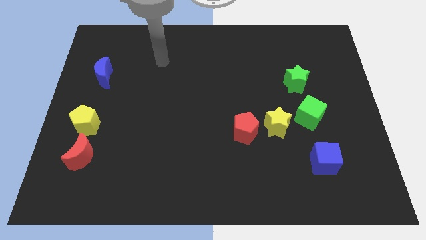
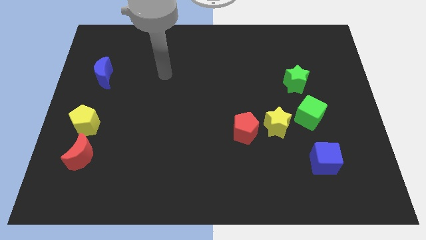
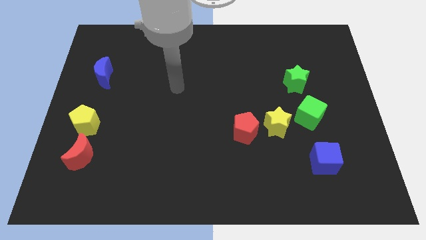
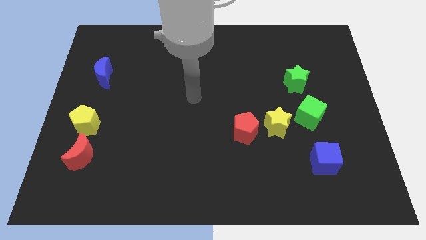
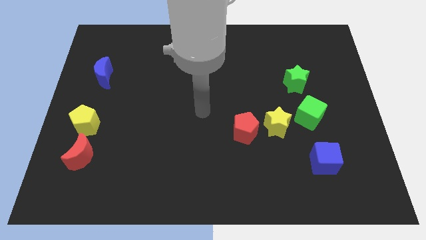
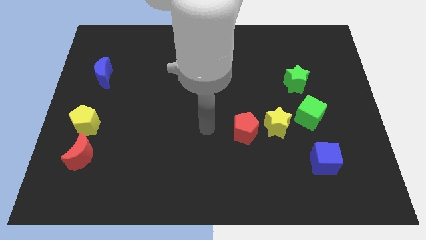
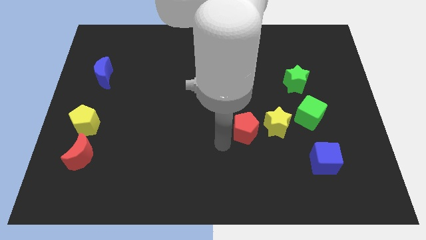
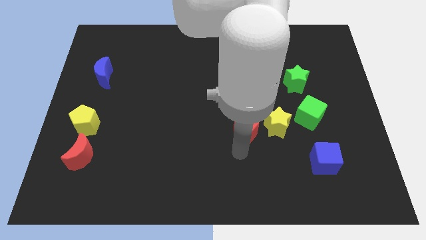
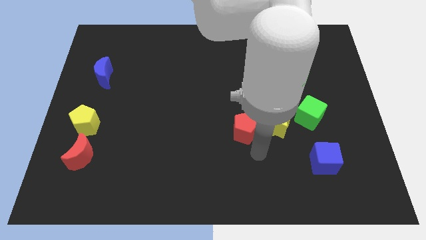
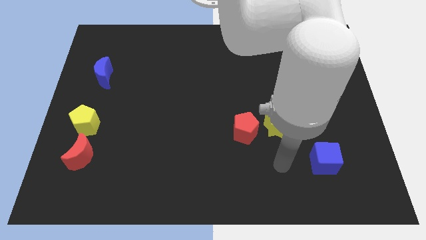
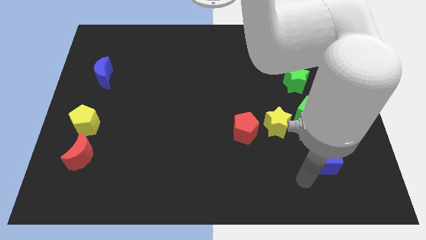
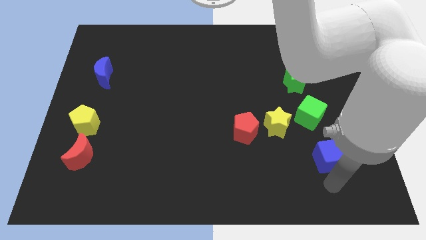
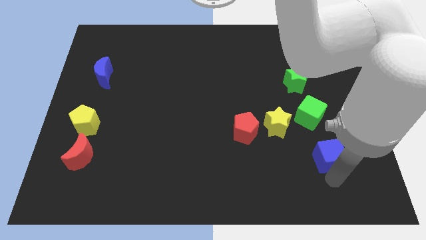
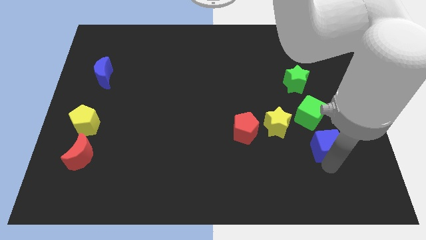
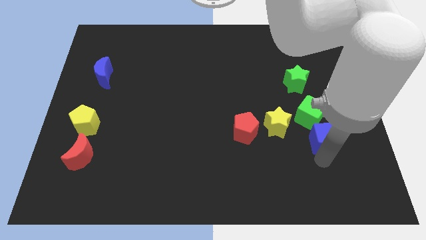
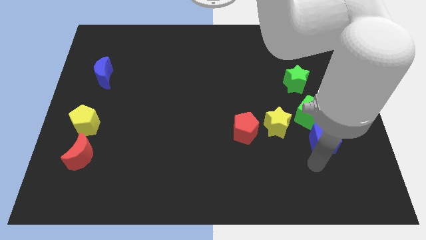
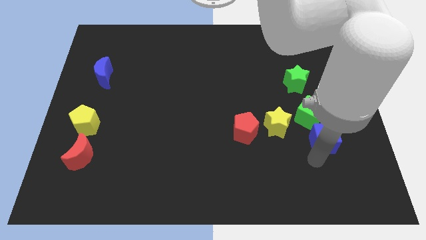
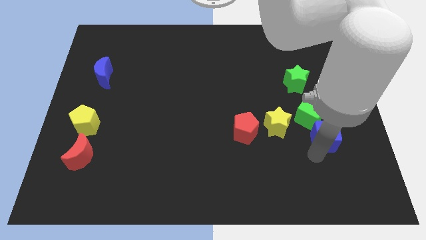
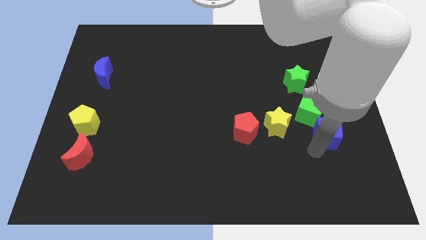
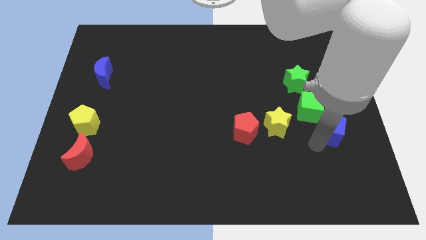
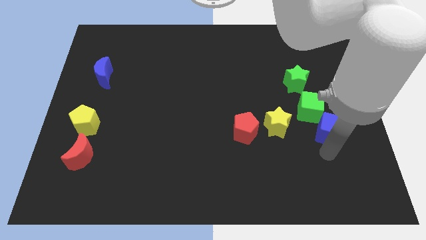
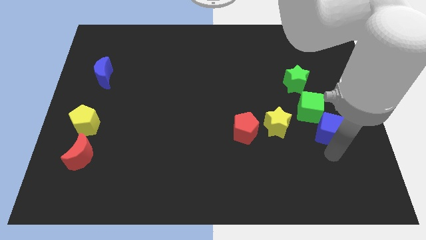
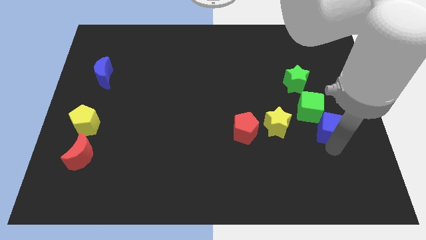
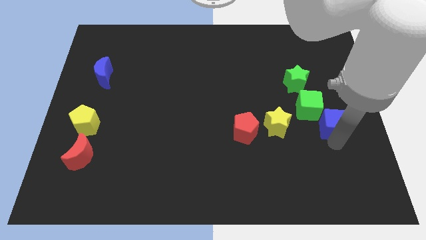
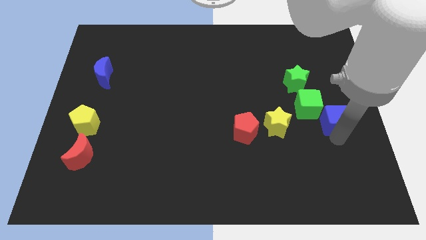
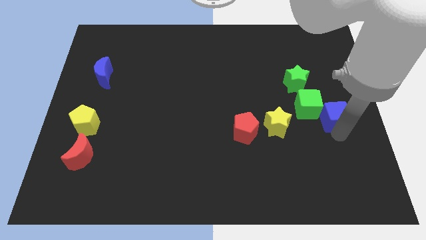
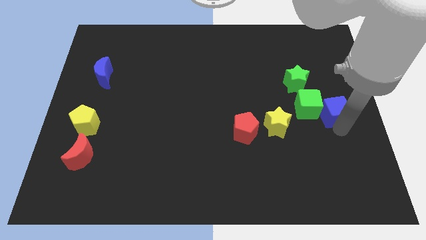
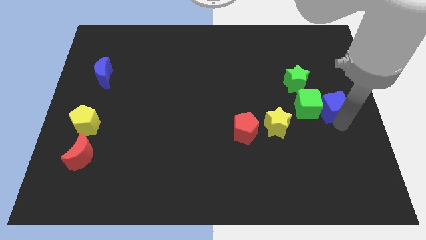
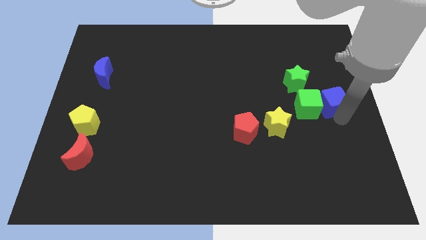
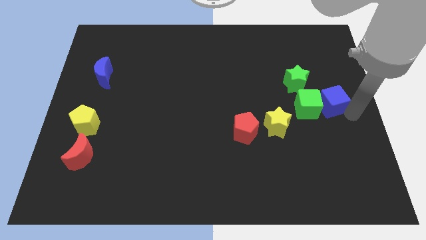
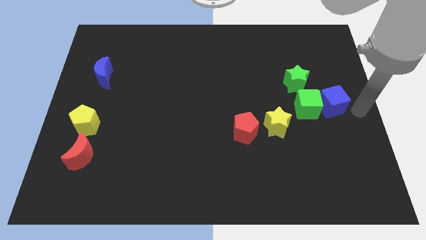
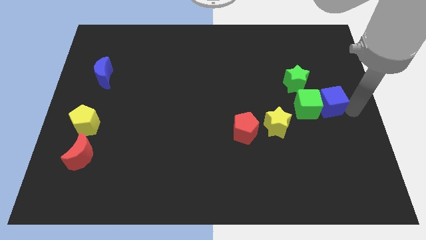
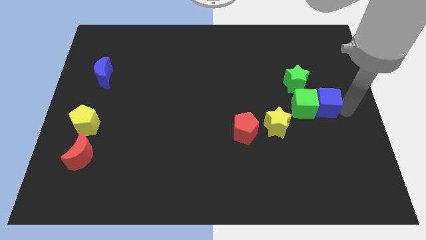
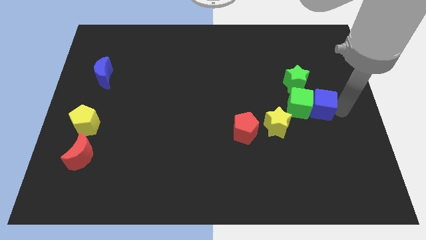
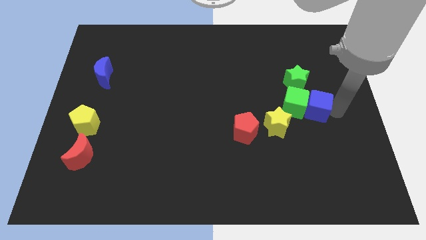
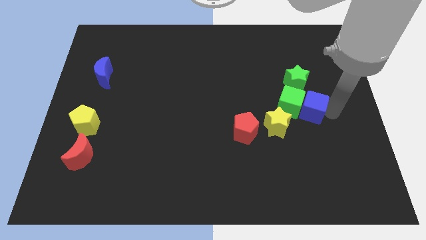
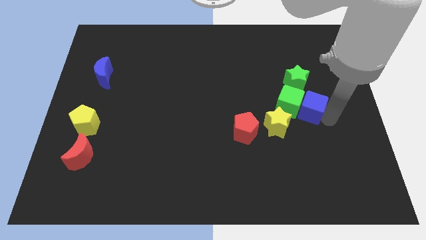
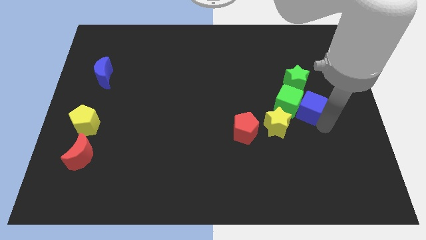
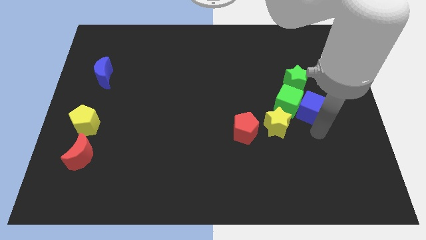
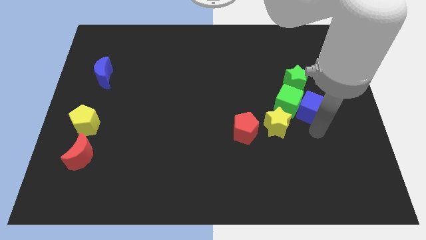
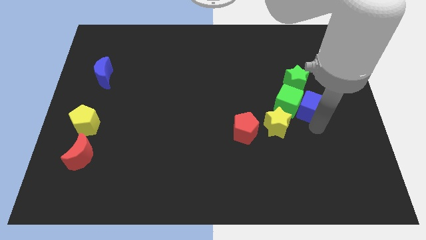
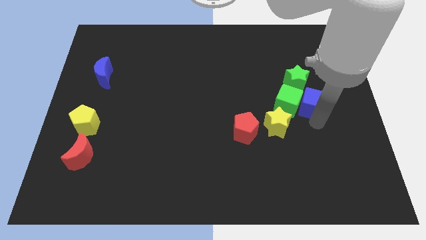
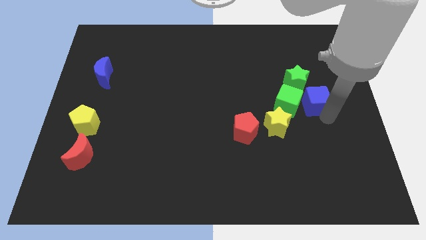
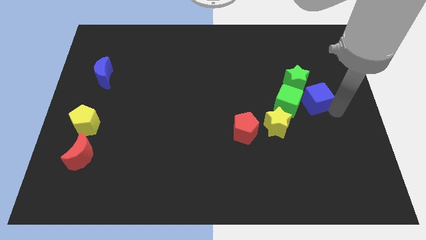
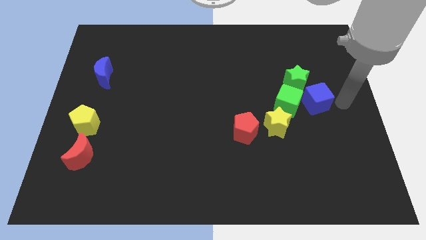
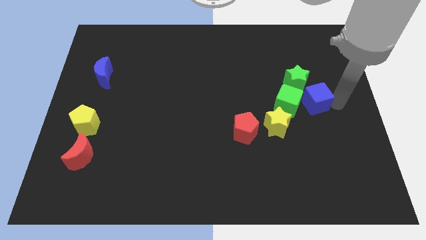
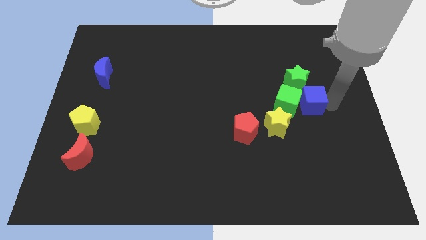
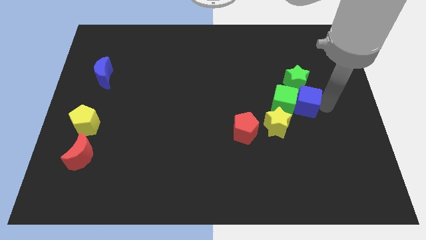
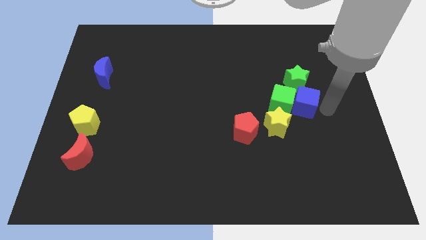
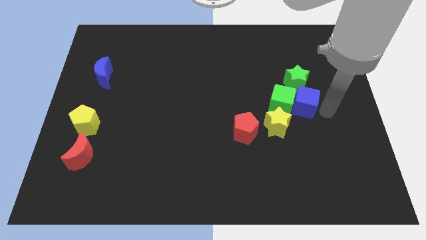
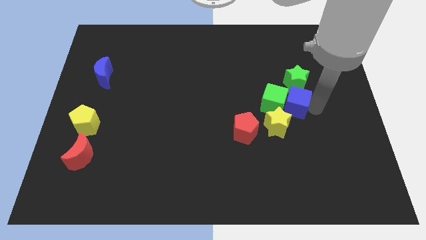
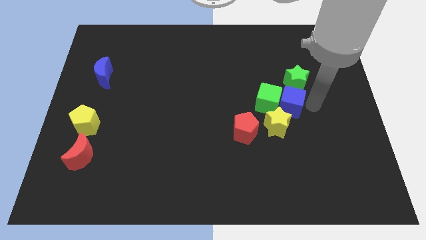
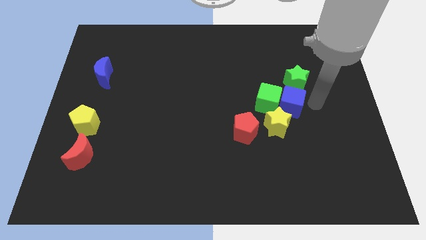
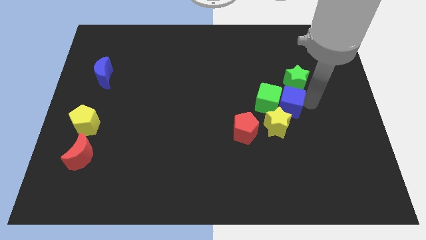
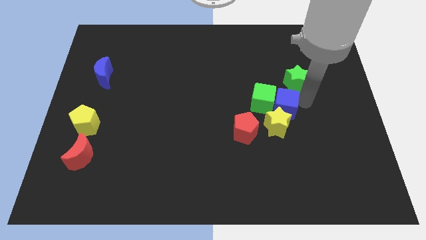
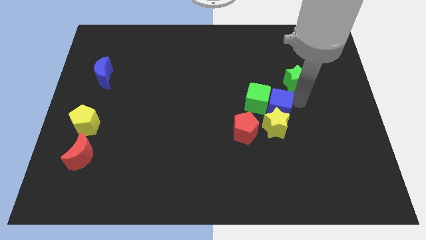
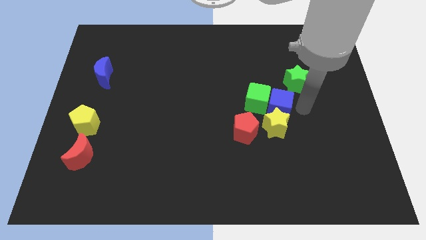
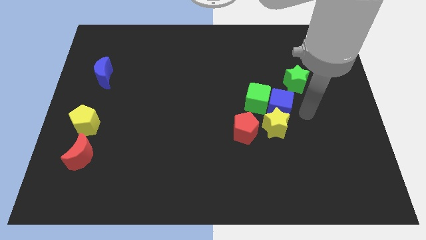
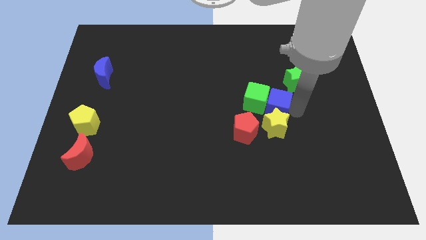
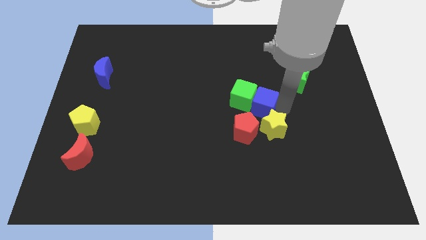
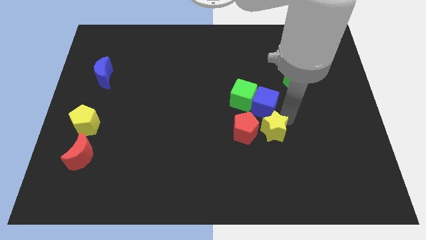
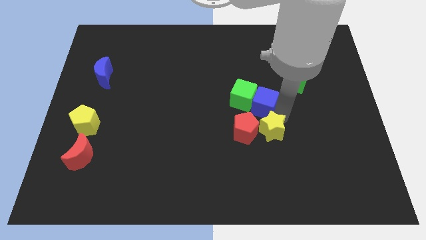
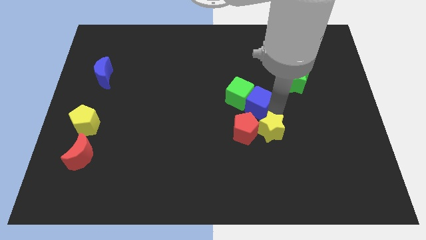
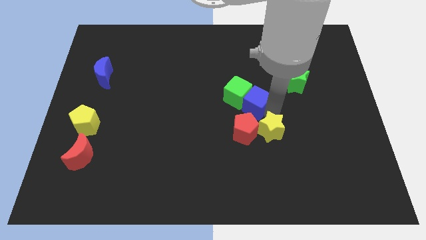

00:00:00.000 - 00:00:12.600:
push the blue cube diagonally up and left

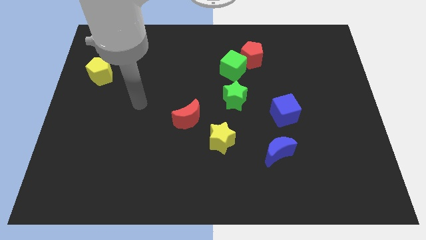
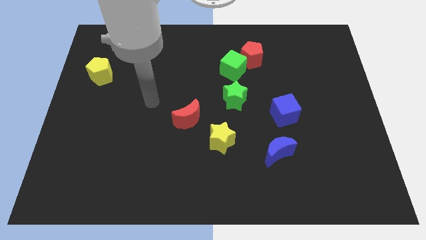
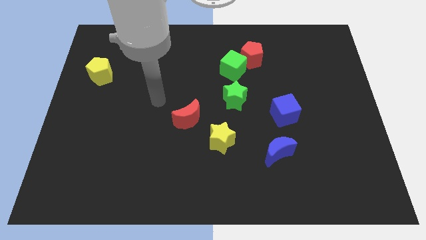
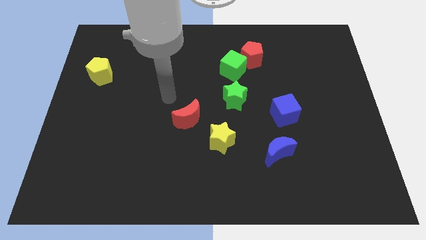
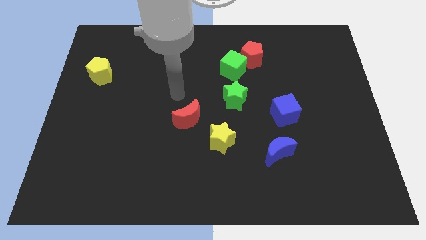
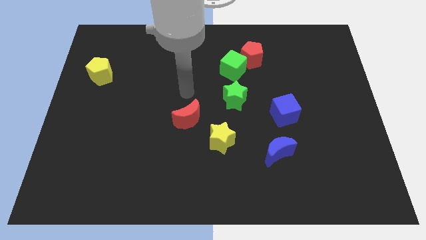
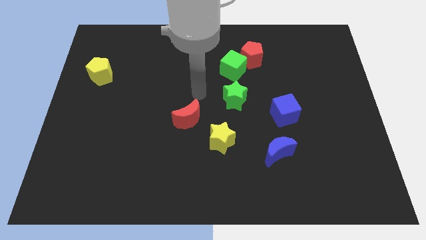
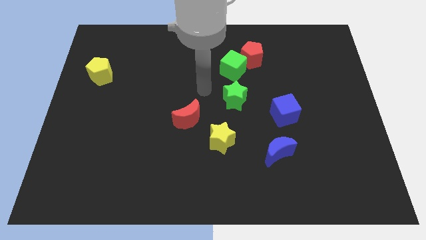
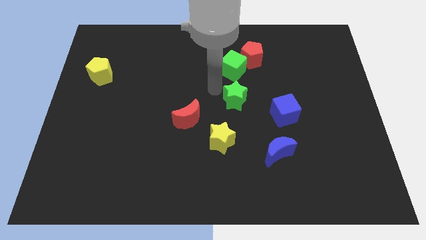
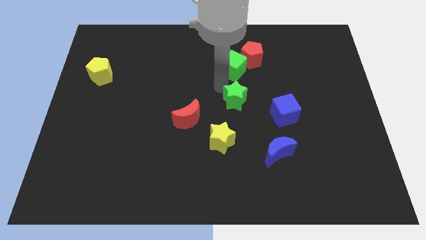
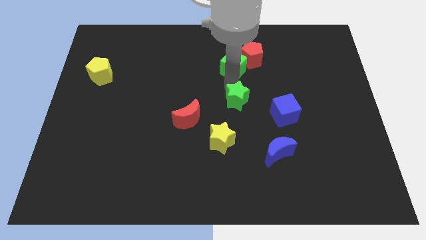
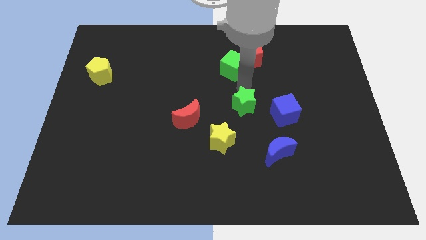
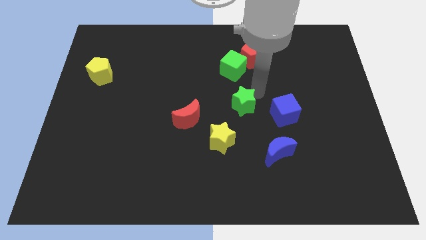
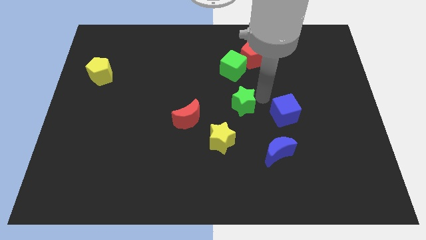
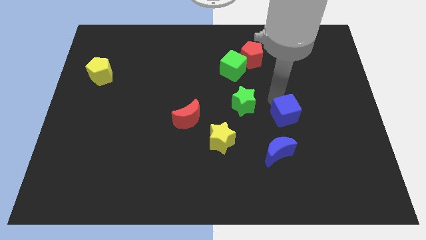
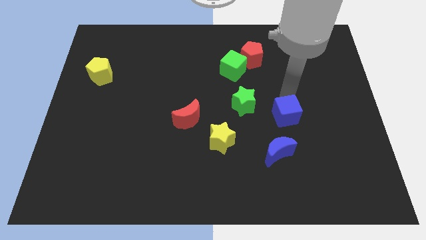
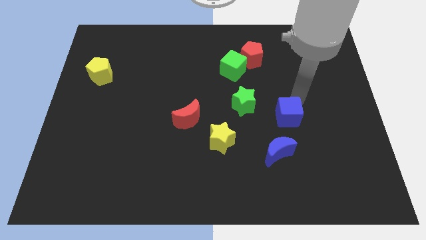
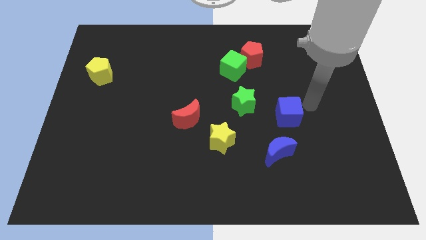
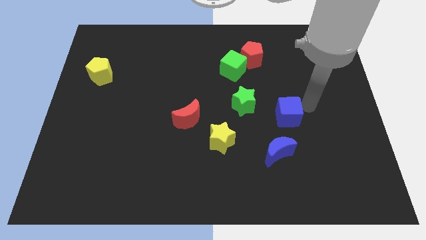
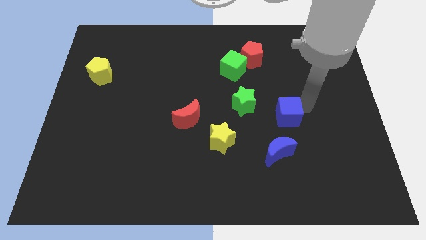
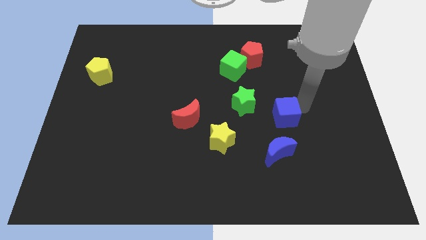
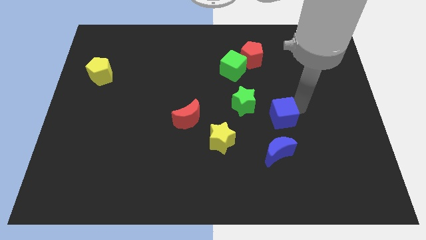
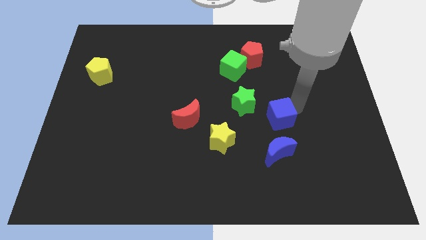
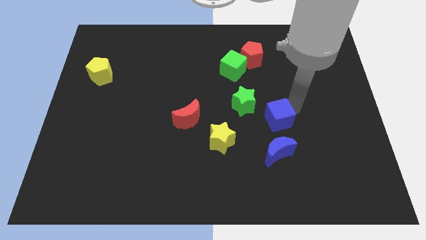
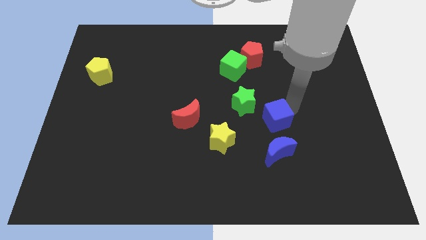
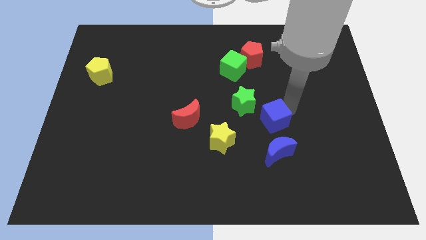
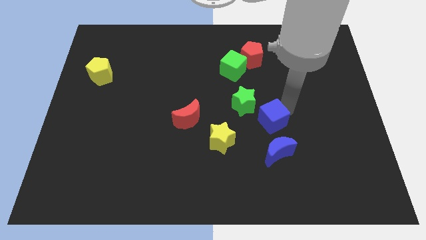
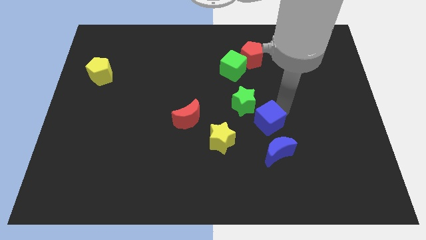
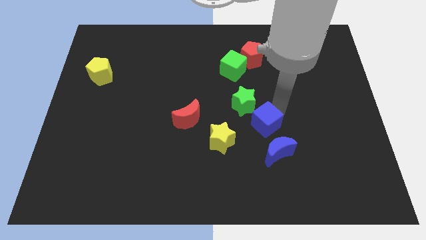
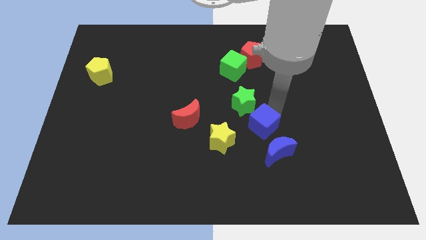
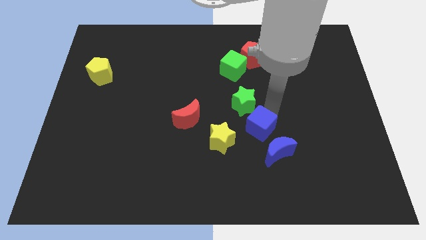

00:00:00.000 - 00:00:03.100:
move the blue cube diagonally down and left slightly
